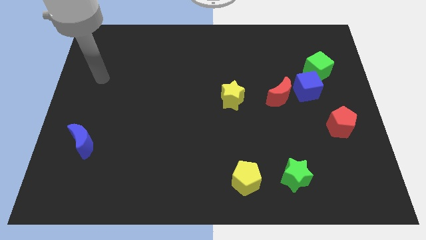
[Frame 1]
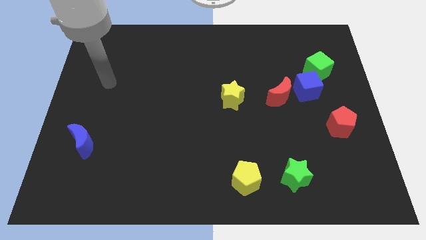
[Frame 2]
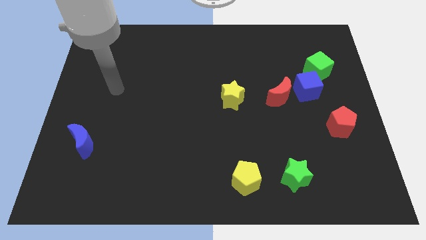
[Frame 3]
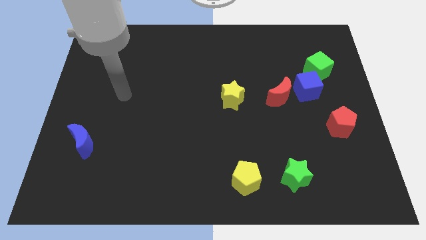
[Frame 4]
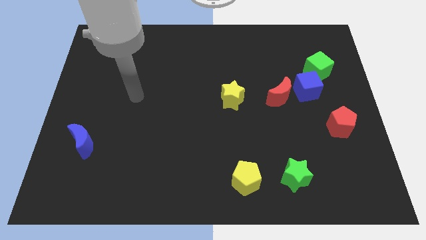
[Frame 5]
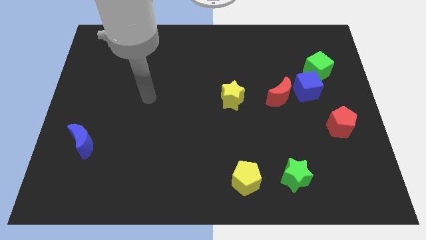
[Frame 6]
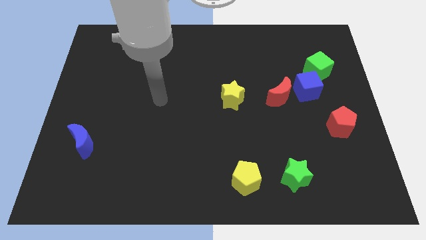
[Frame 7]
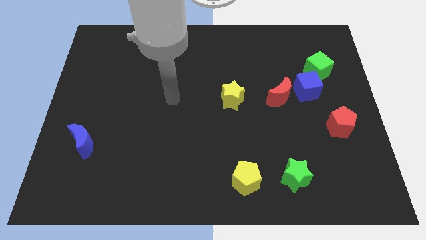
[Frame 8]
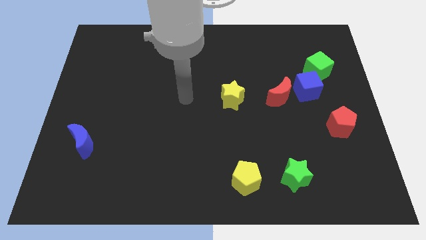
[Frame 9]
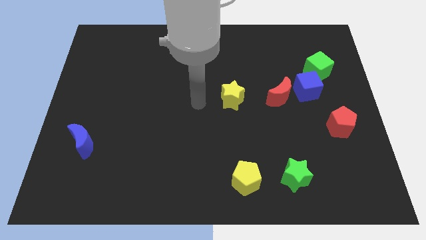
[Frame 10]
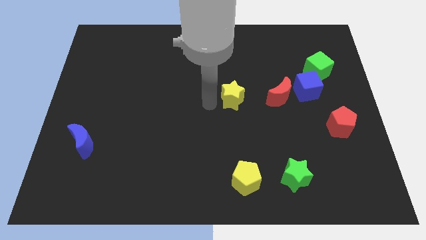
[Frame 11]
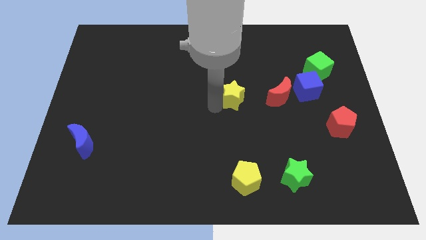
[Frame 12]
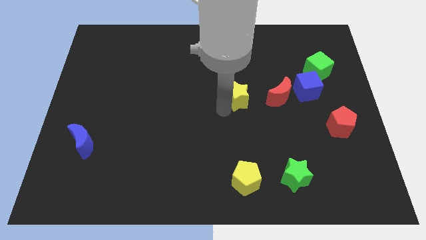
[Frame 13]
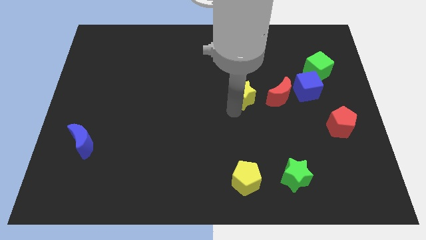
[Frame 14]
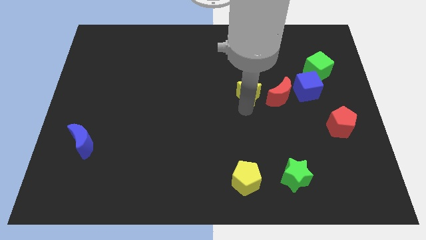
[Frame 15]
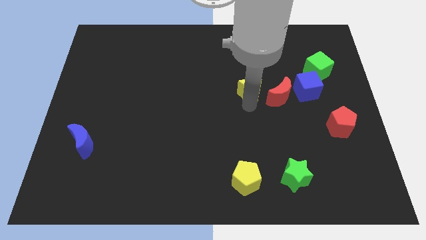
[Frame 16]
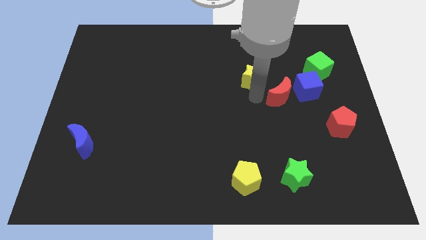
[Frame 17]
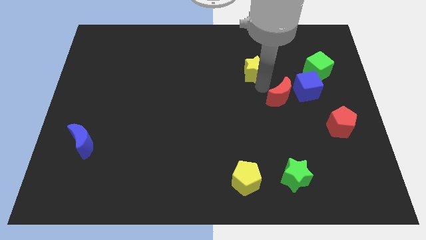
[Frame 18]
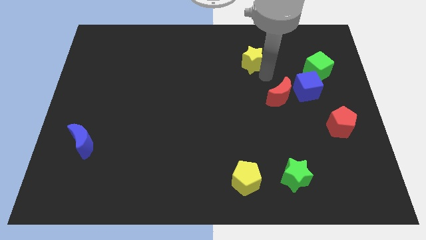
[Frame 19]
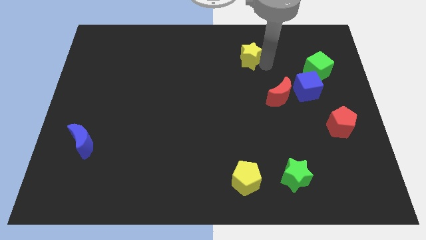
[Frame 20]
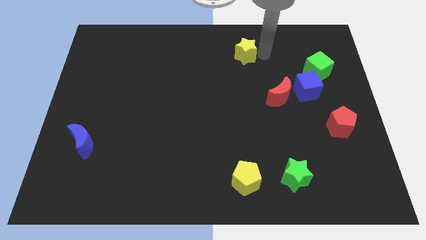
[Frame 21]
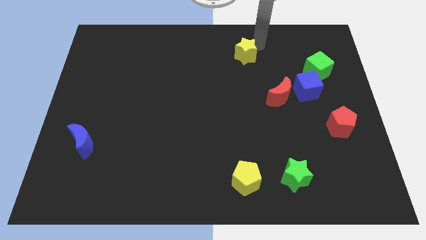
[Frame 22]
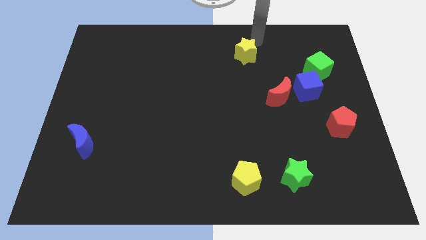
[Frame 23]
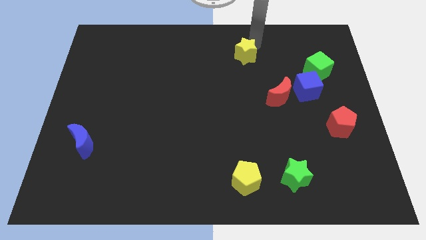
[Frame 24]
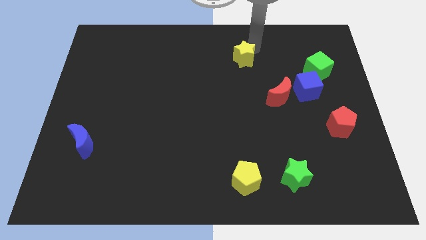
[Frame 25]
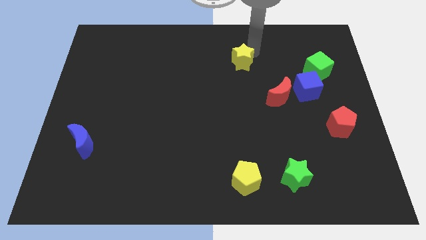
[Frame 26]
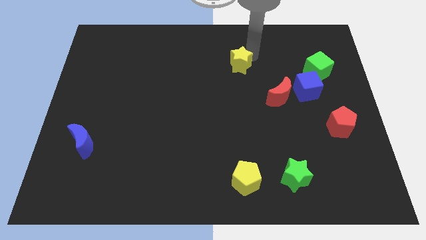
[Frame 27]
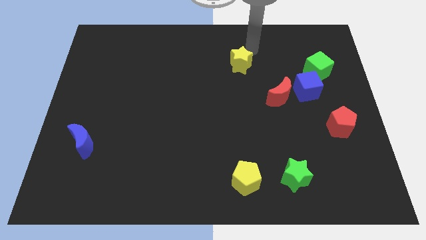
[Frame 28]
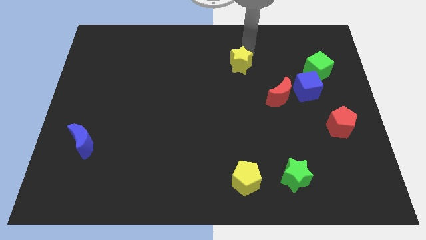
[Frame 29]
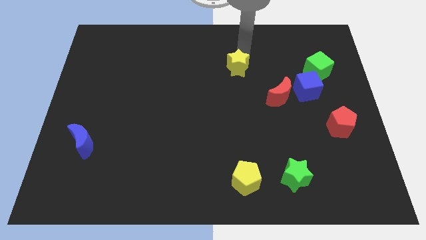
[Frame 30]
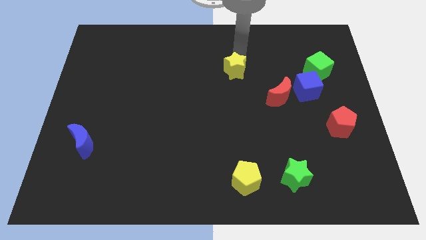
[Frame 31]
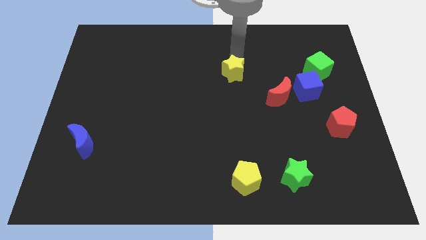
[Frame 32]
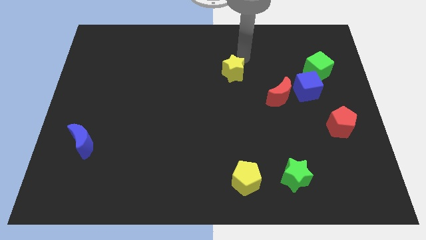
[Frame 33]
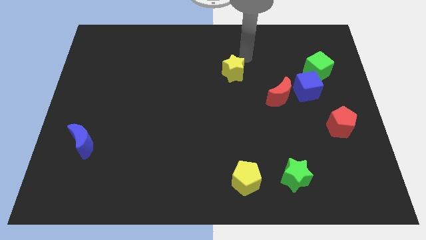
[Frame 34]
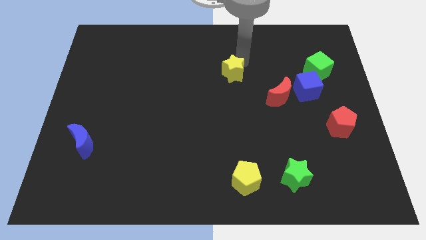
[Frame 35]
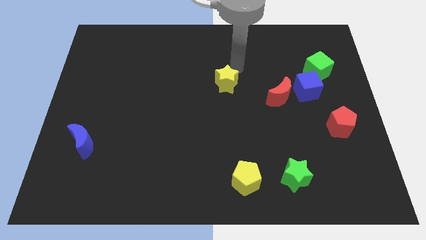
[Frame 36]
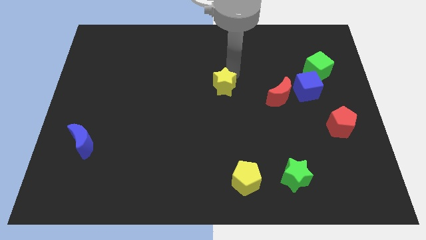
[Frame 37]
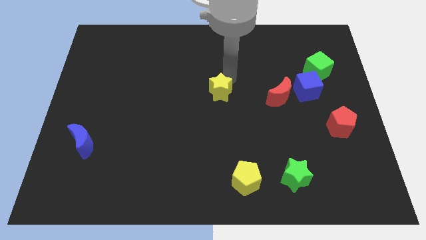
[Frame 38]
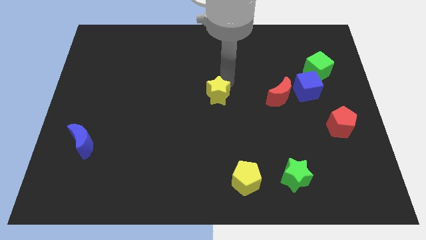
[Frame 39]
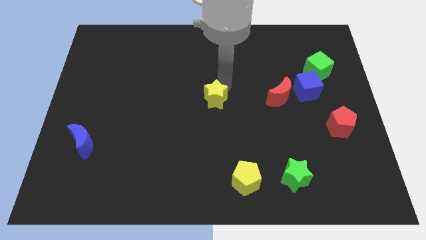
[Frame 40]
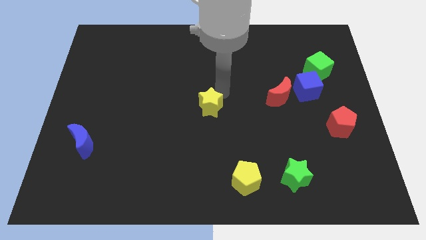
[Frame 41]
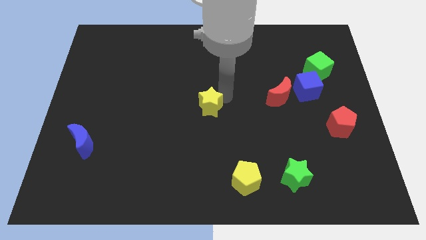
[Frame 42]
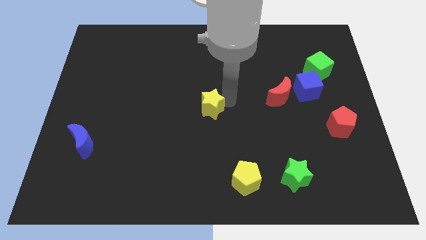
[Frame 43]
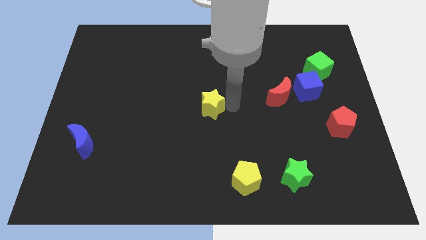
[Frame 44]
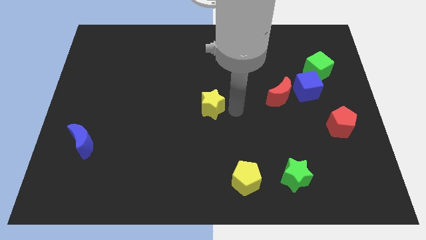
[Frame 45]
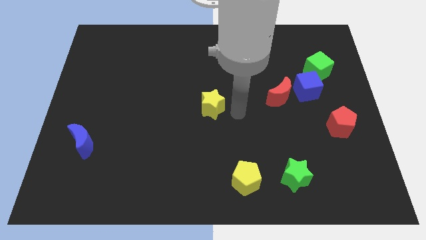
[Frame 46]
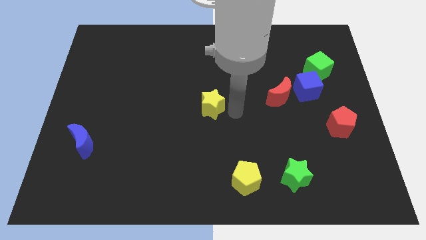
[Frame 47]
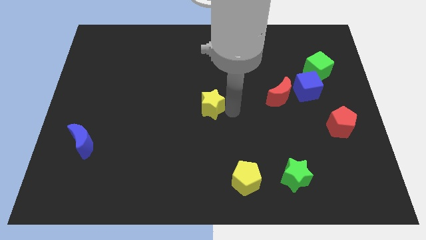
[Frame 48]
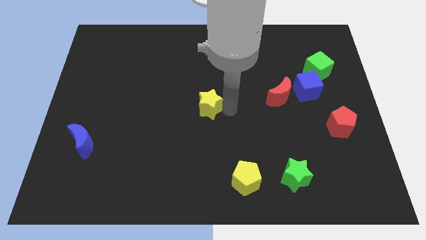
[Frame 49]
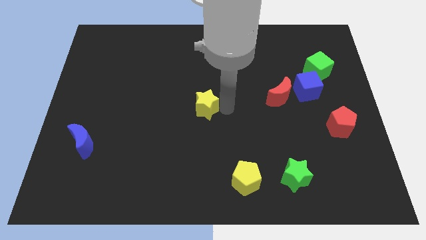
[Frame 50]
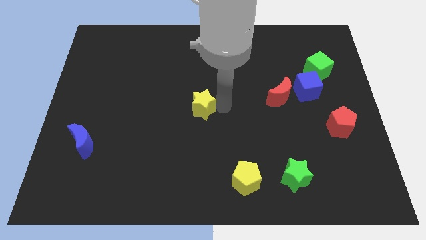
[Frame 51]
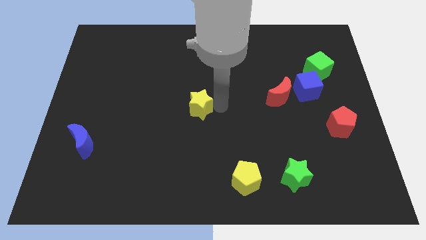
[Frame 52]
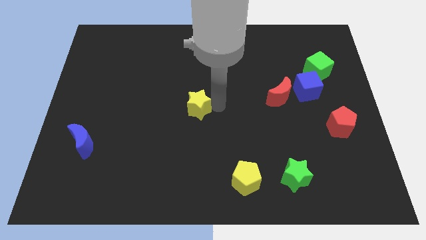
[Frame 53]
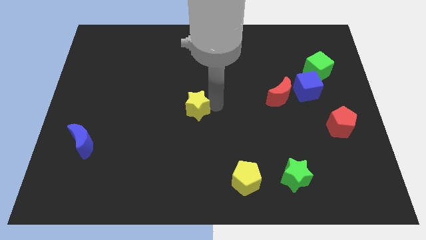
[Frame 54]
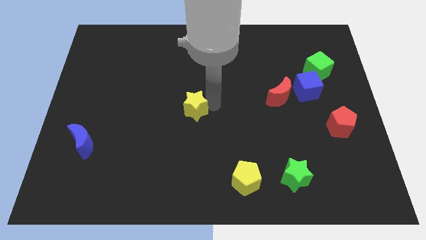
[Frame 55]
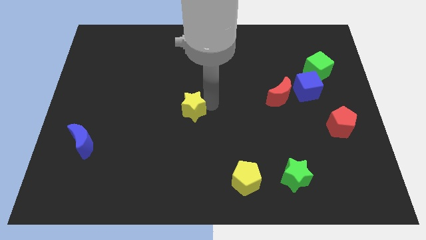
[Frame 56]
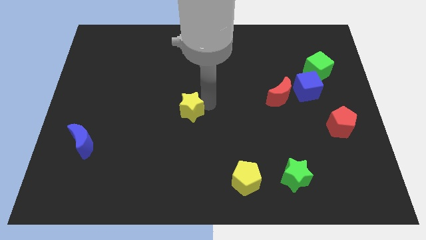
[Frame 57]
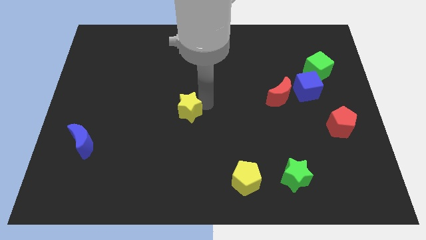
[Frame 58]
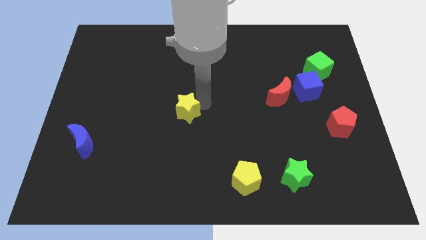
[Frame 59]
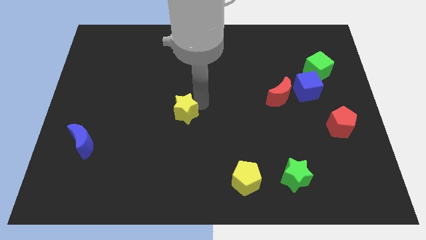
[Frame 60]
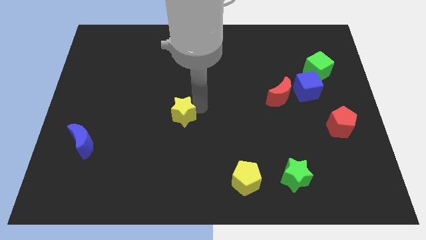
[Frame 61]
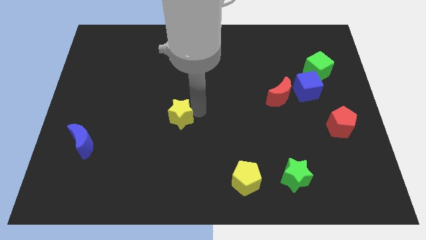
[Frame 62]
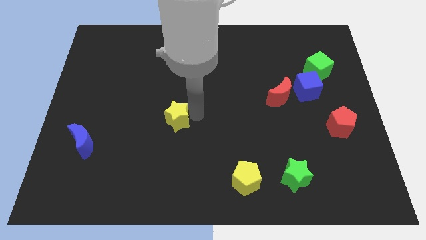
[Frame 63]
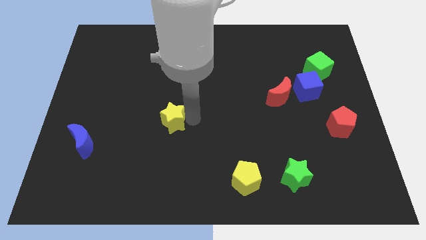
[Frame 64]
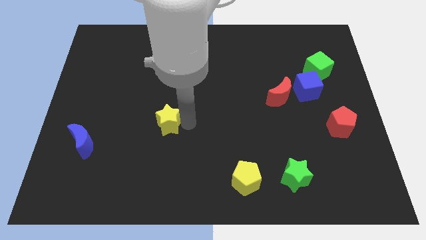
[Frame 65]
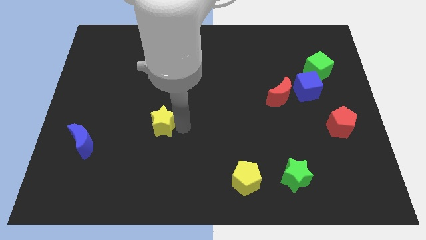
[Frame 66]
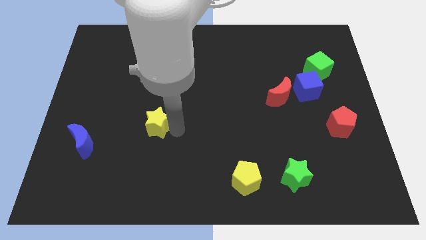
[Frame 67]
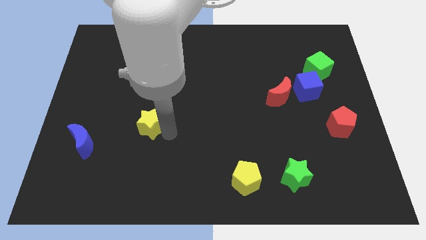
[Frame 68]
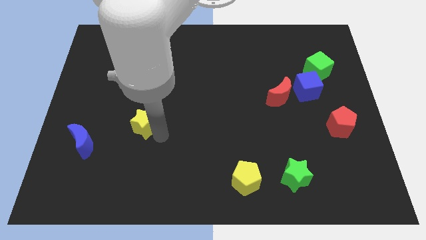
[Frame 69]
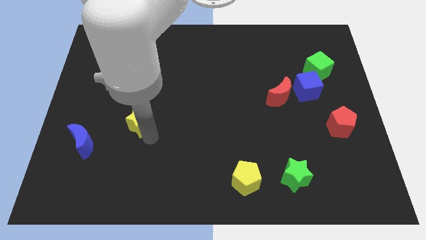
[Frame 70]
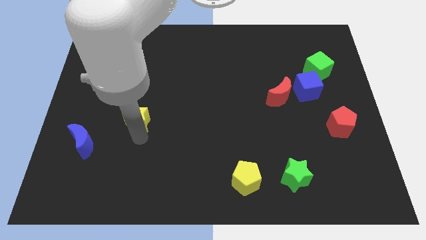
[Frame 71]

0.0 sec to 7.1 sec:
move the yellow star to the left

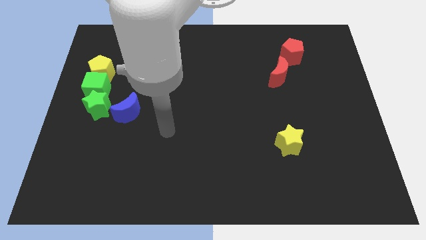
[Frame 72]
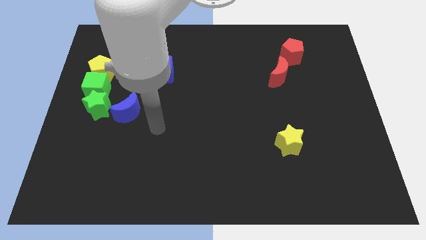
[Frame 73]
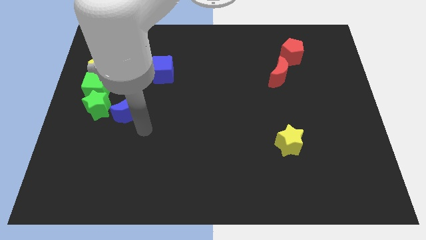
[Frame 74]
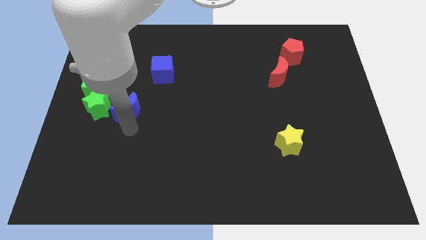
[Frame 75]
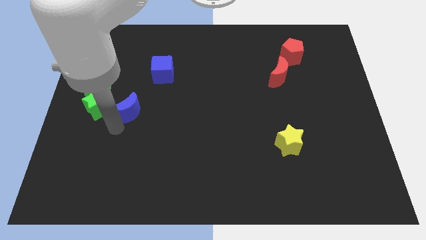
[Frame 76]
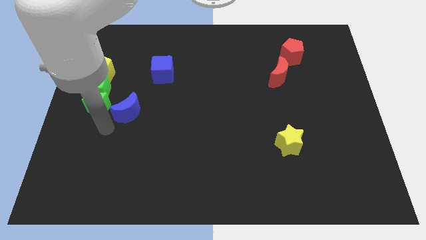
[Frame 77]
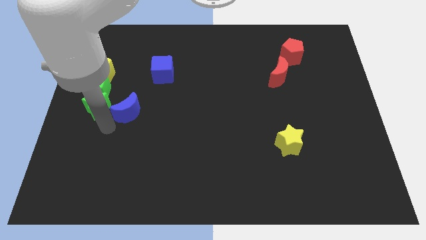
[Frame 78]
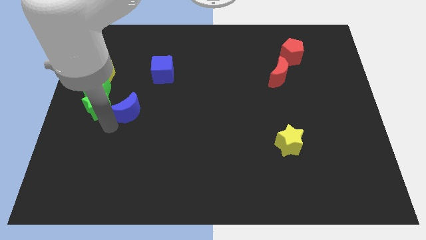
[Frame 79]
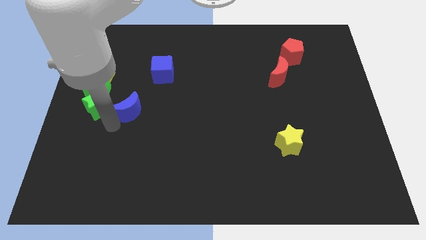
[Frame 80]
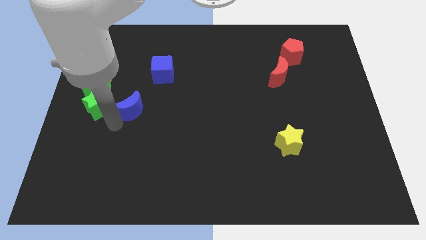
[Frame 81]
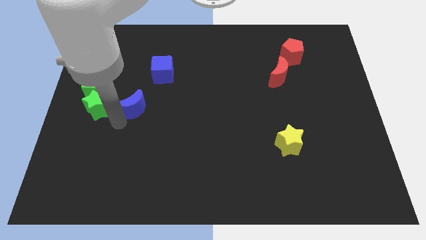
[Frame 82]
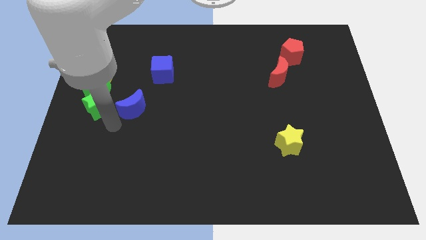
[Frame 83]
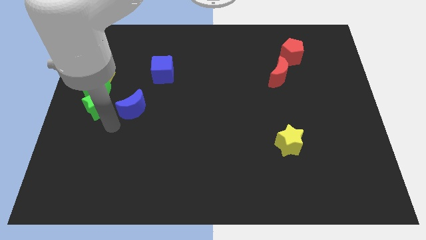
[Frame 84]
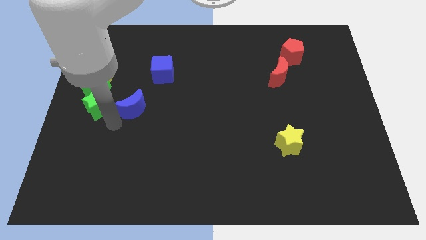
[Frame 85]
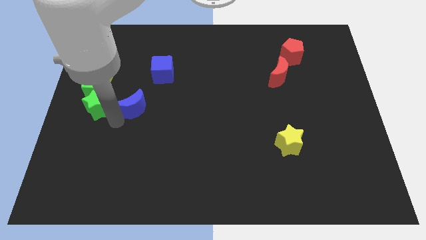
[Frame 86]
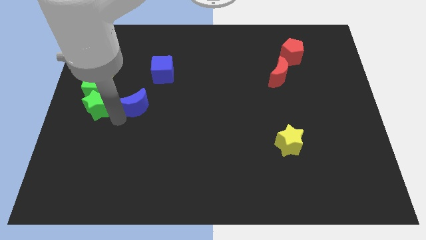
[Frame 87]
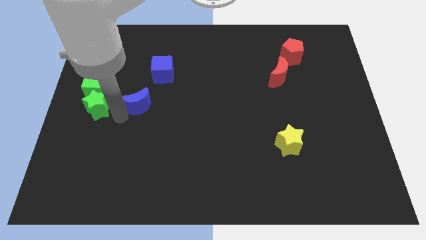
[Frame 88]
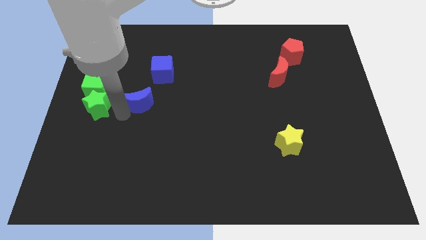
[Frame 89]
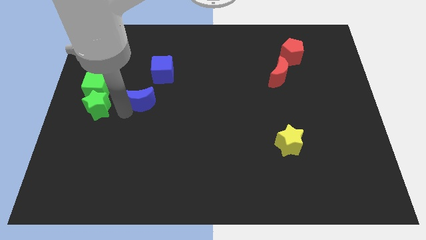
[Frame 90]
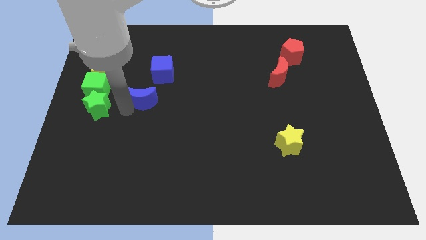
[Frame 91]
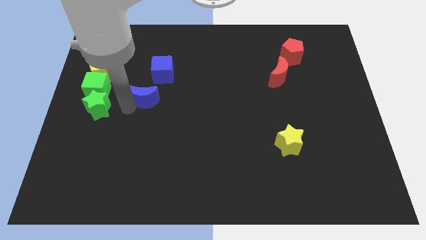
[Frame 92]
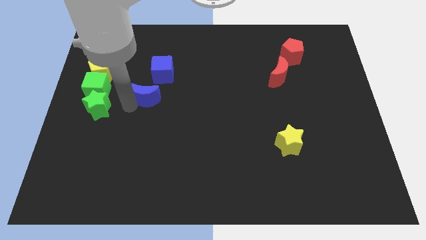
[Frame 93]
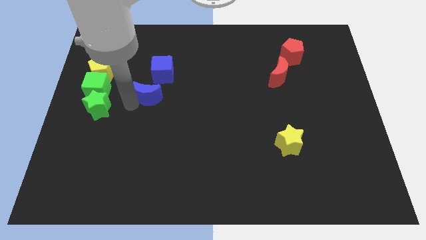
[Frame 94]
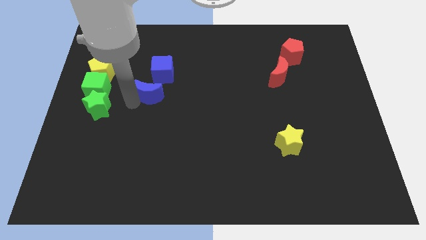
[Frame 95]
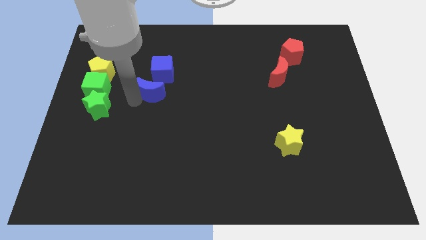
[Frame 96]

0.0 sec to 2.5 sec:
move the blue moon a little bit upwards and to the right
